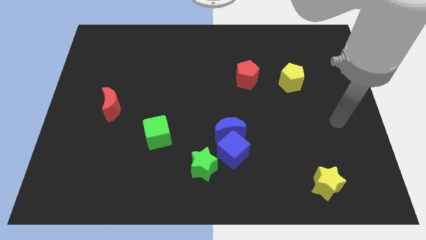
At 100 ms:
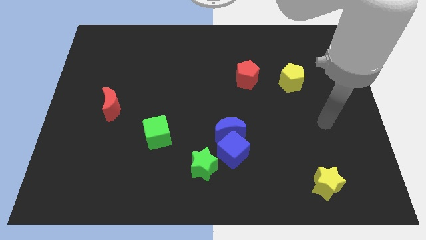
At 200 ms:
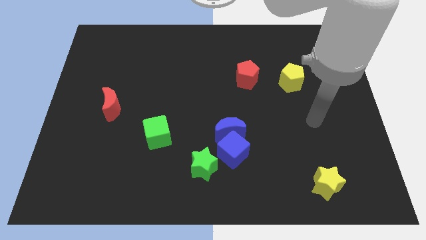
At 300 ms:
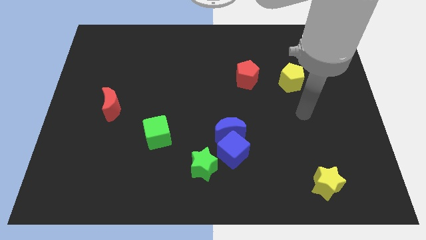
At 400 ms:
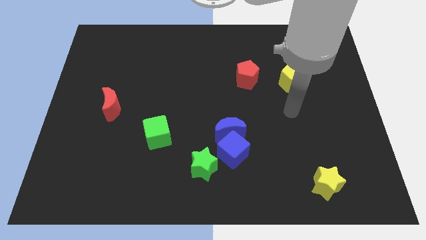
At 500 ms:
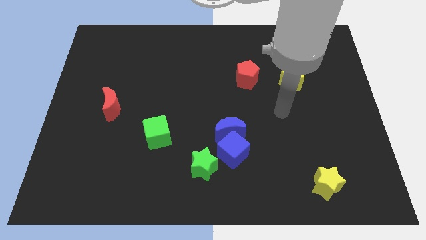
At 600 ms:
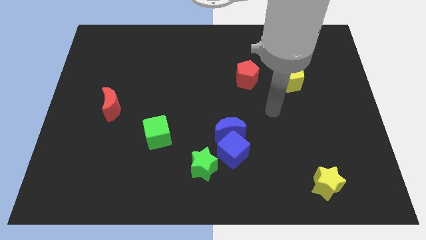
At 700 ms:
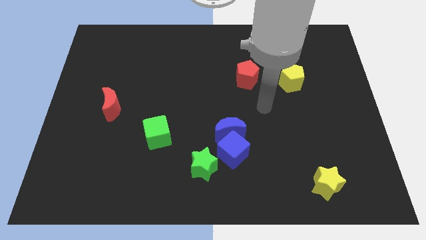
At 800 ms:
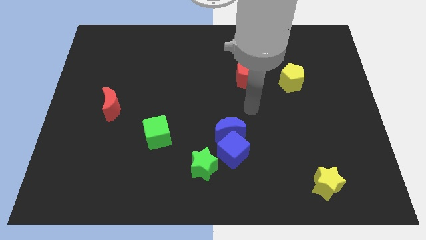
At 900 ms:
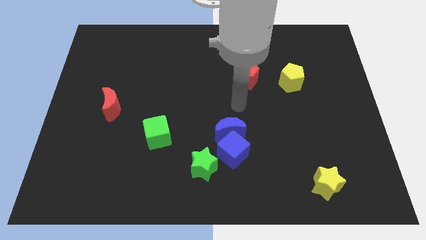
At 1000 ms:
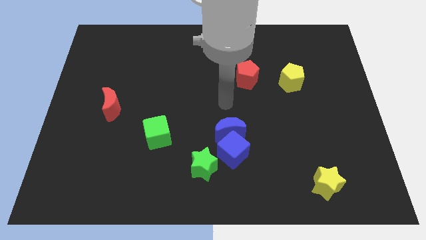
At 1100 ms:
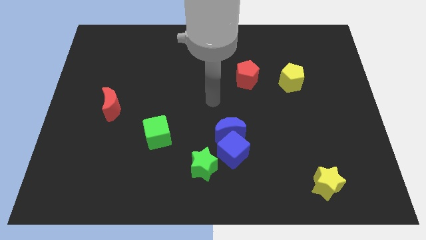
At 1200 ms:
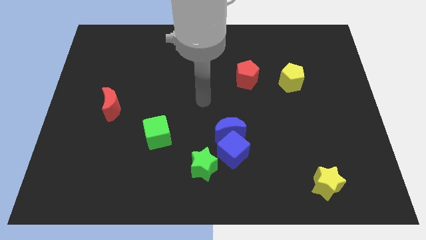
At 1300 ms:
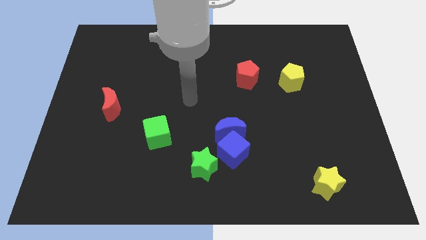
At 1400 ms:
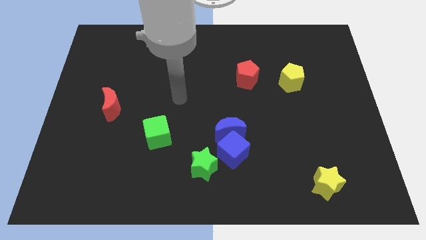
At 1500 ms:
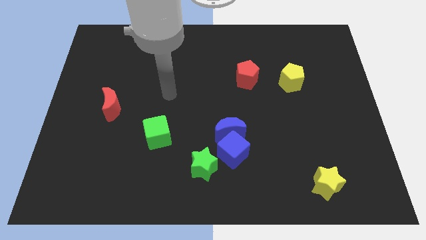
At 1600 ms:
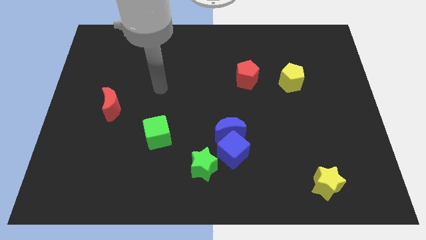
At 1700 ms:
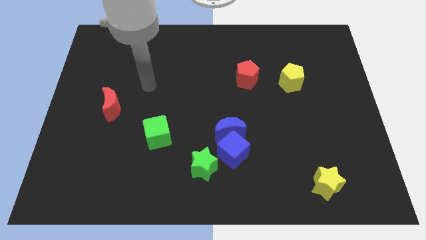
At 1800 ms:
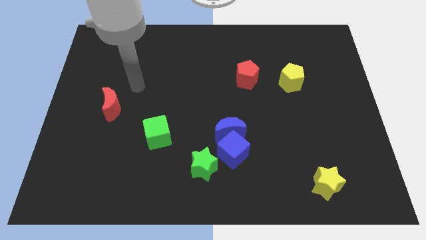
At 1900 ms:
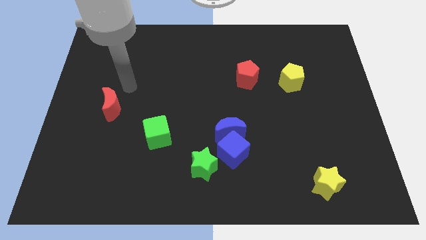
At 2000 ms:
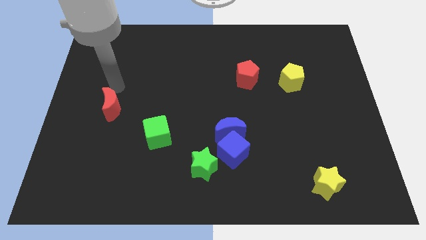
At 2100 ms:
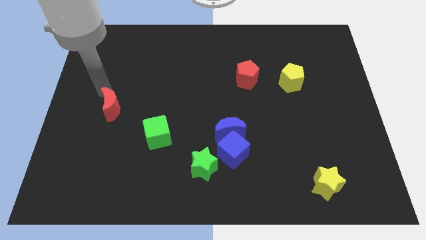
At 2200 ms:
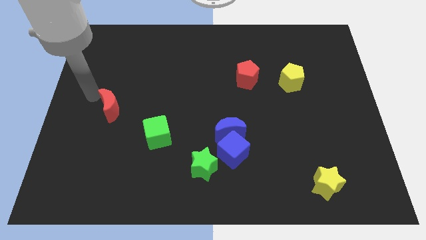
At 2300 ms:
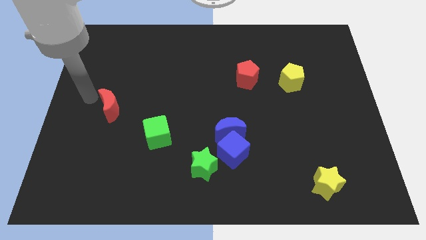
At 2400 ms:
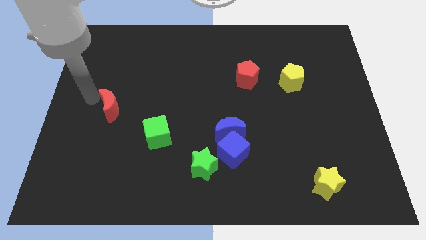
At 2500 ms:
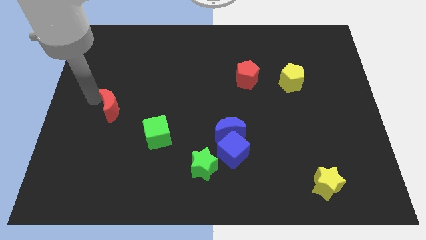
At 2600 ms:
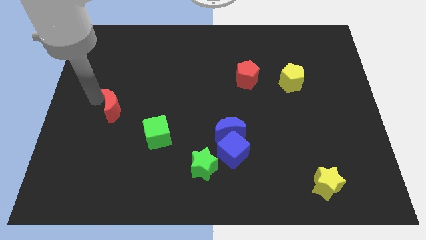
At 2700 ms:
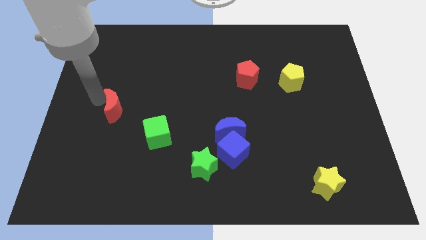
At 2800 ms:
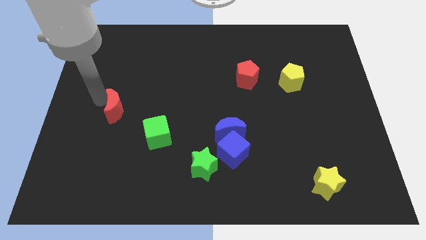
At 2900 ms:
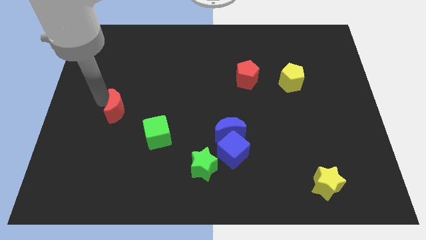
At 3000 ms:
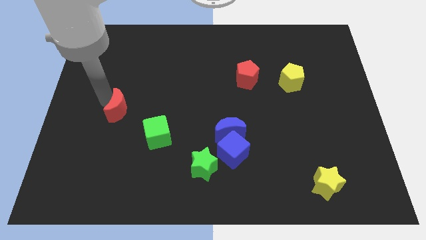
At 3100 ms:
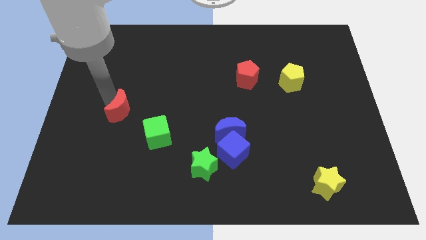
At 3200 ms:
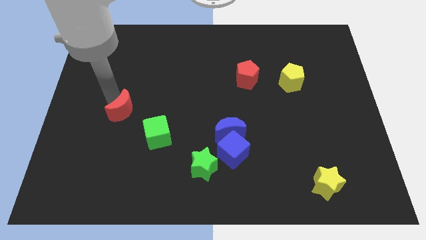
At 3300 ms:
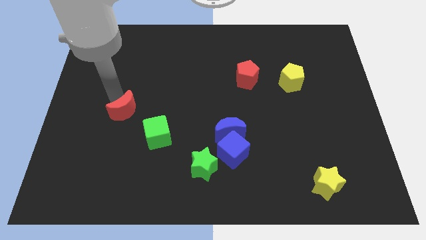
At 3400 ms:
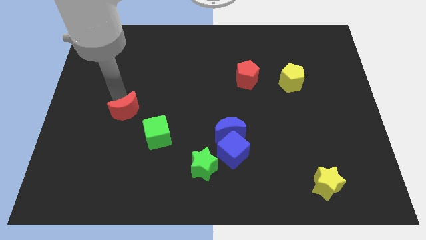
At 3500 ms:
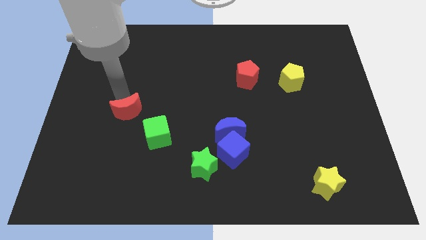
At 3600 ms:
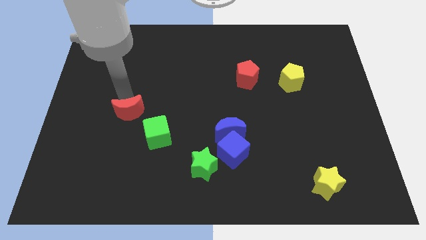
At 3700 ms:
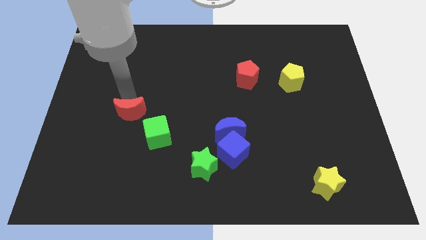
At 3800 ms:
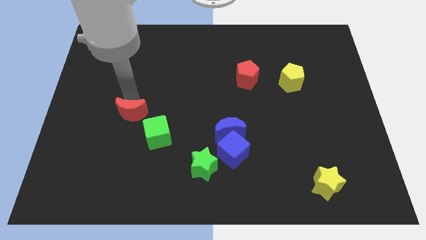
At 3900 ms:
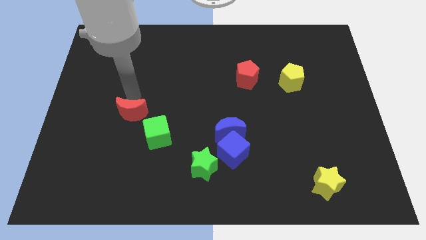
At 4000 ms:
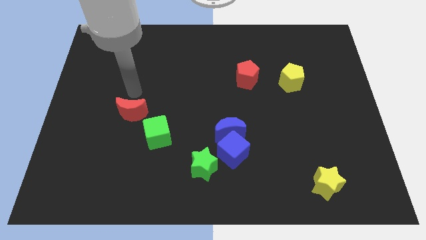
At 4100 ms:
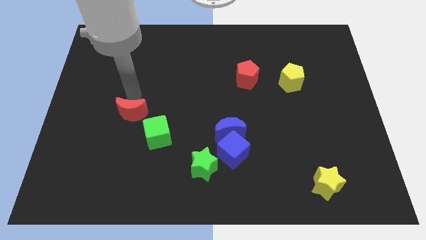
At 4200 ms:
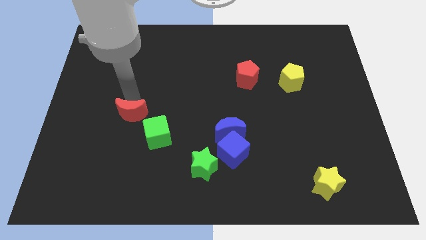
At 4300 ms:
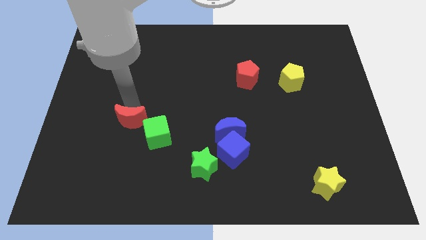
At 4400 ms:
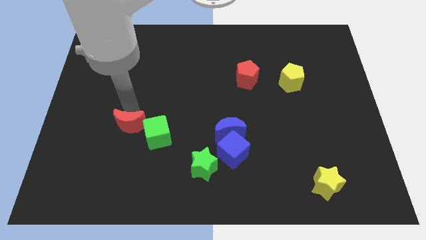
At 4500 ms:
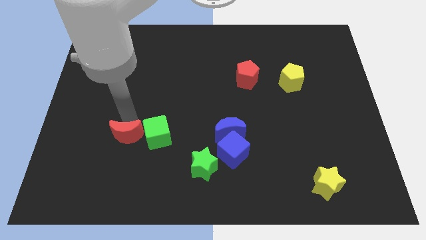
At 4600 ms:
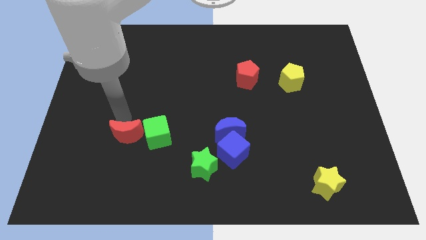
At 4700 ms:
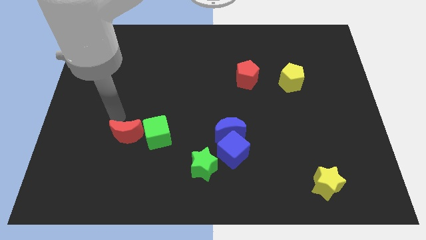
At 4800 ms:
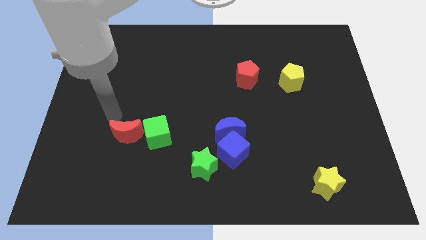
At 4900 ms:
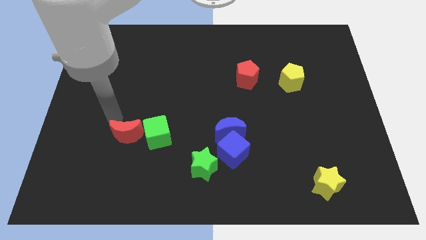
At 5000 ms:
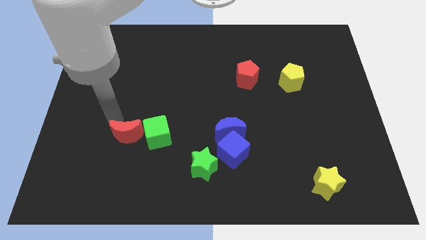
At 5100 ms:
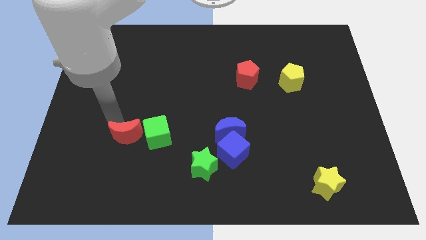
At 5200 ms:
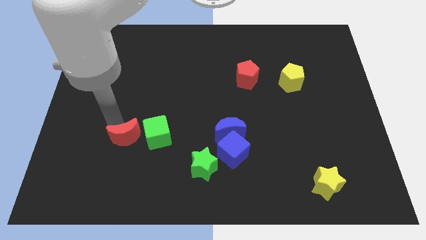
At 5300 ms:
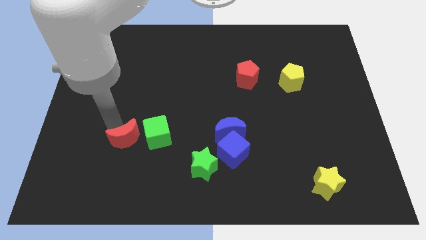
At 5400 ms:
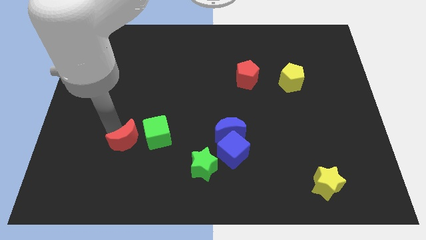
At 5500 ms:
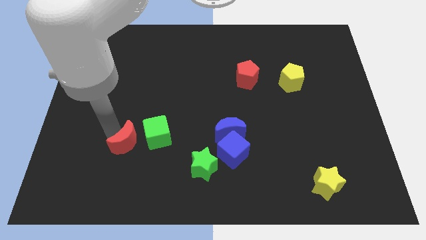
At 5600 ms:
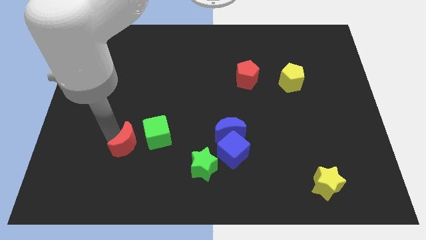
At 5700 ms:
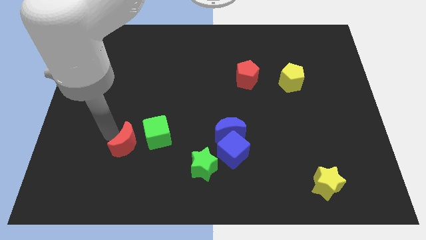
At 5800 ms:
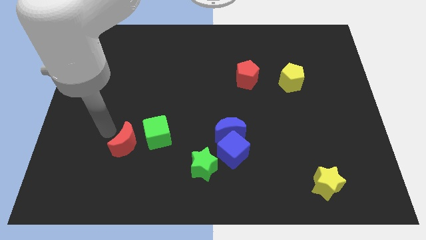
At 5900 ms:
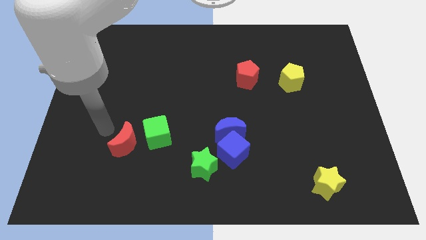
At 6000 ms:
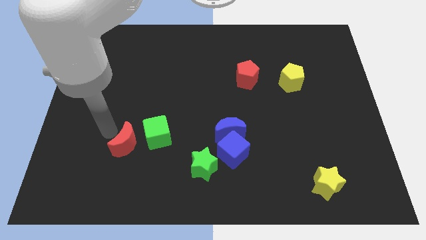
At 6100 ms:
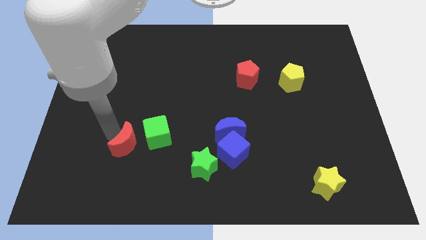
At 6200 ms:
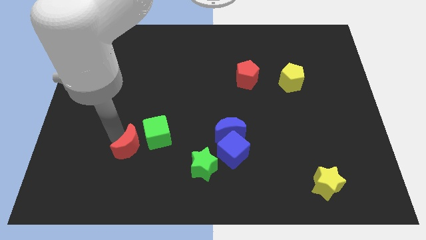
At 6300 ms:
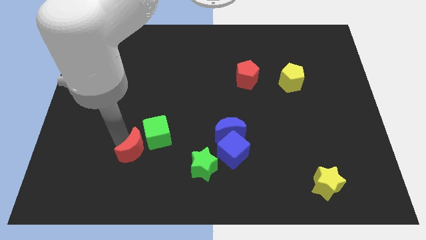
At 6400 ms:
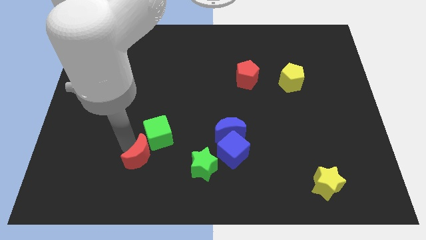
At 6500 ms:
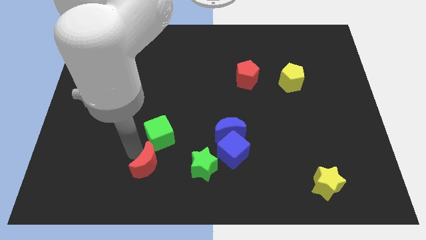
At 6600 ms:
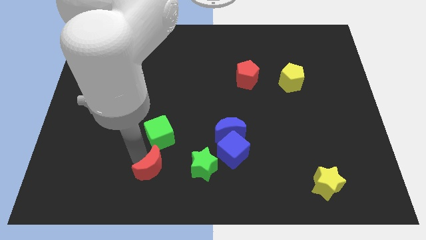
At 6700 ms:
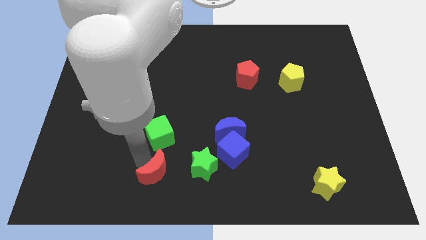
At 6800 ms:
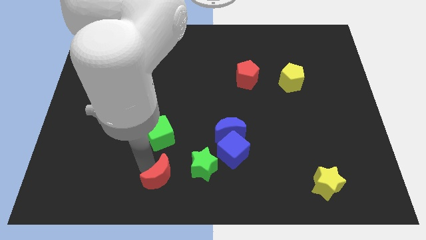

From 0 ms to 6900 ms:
move the red moon to the bottom side

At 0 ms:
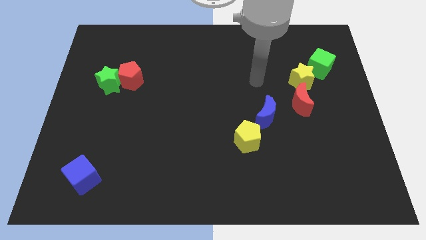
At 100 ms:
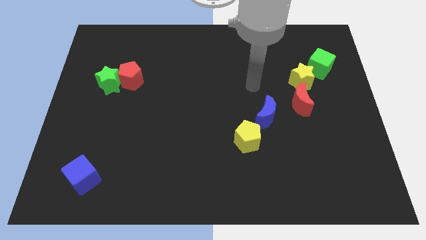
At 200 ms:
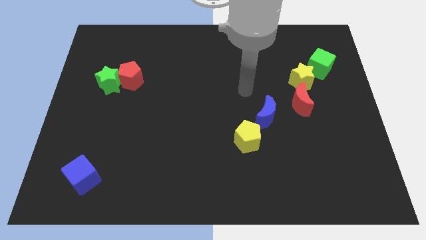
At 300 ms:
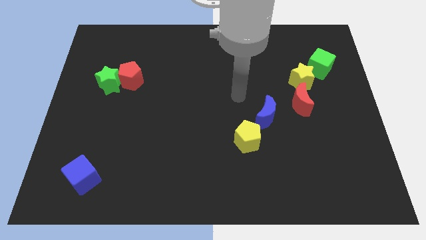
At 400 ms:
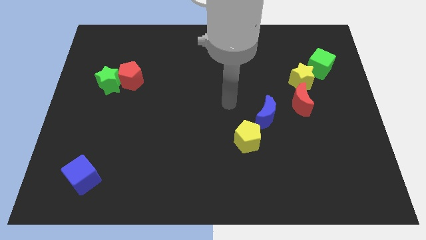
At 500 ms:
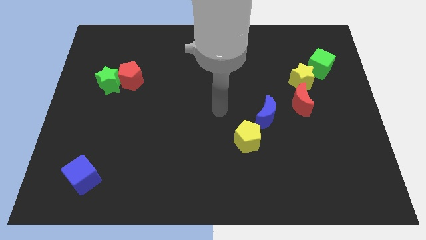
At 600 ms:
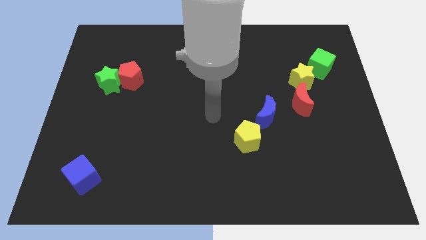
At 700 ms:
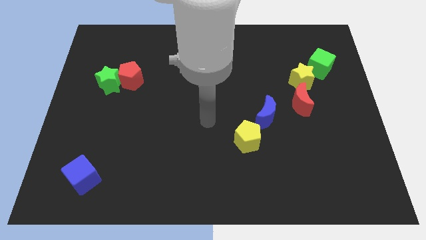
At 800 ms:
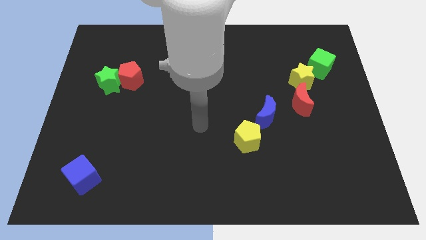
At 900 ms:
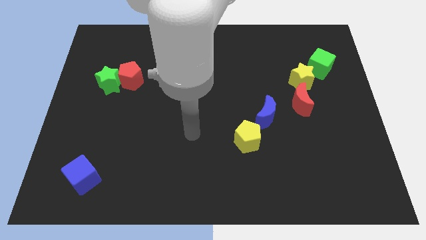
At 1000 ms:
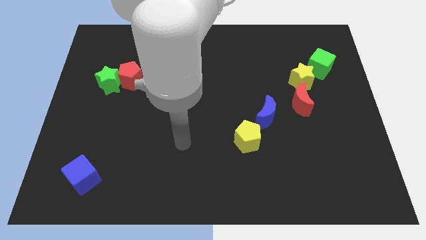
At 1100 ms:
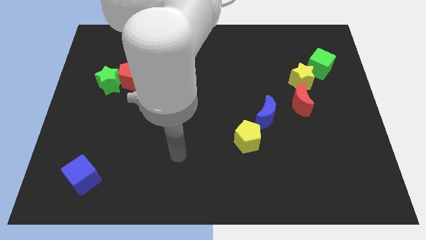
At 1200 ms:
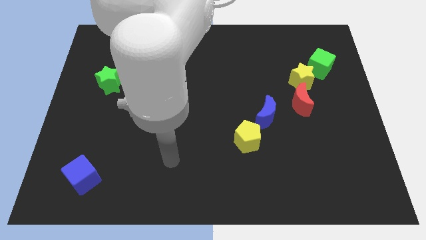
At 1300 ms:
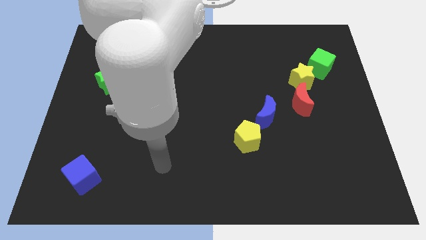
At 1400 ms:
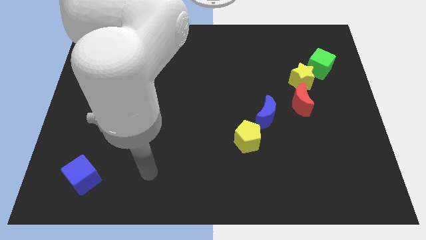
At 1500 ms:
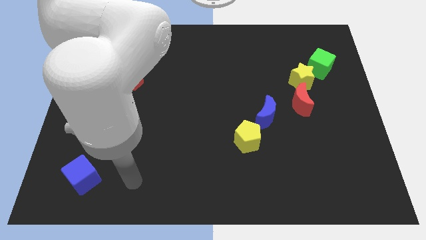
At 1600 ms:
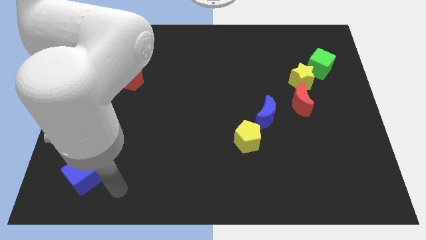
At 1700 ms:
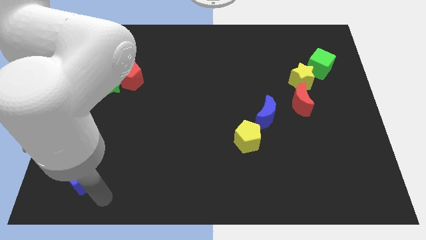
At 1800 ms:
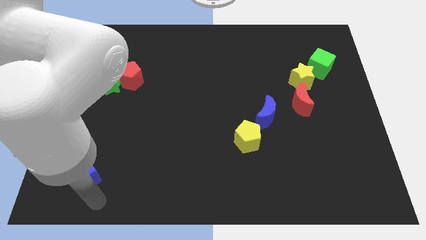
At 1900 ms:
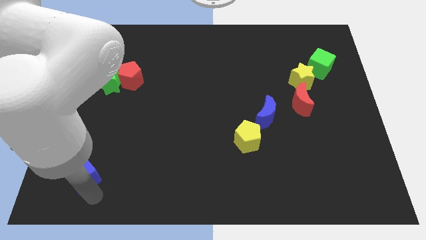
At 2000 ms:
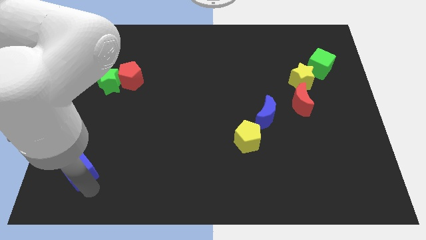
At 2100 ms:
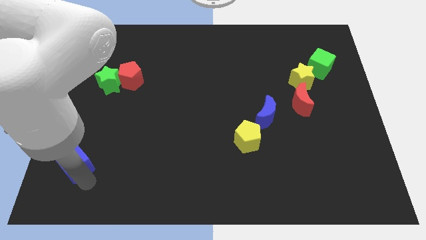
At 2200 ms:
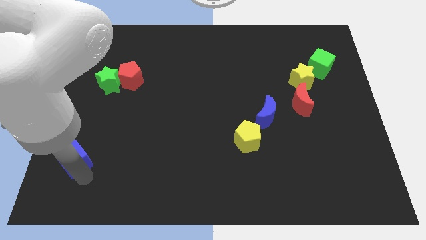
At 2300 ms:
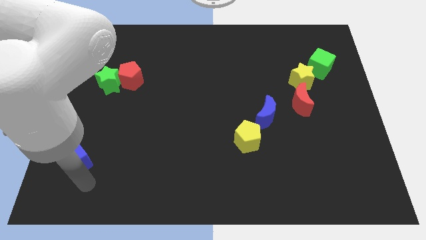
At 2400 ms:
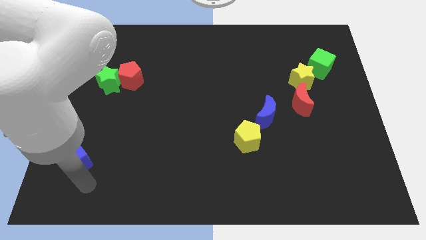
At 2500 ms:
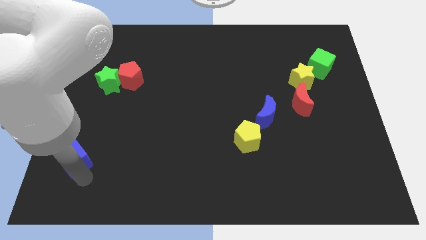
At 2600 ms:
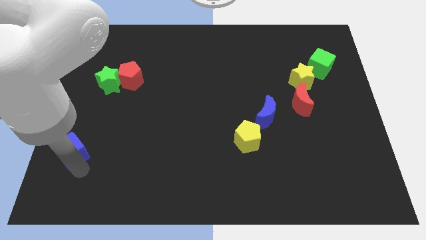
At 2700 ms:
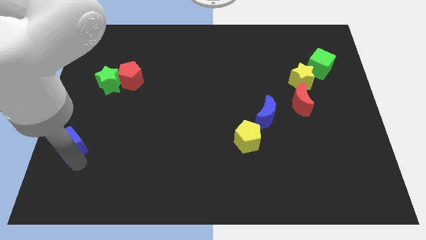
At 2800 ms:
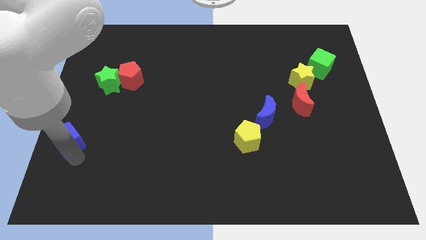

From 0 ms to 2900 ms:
push the blue cube to the left side
